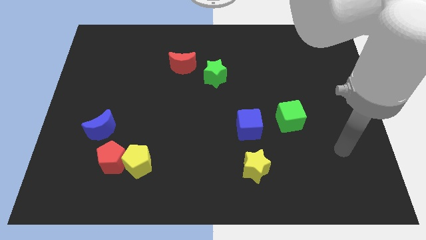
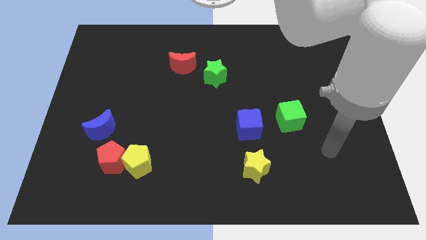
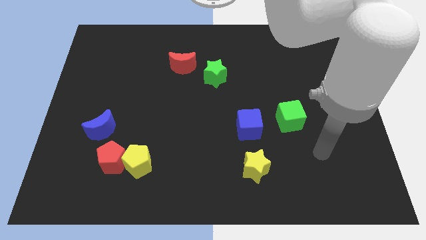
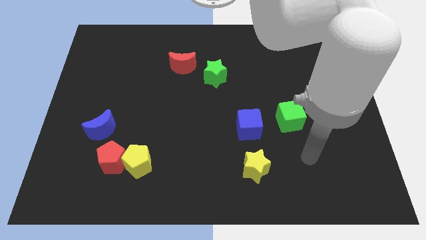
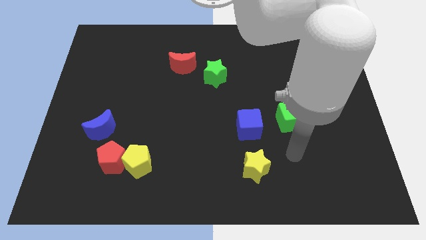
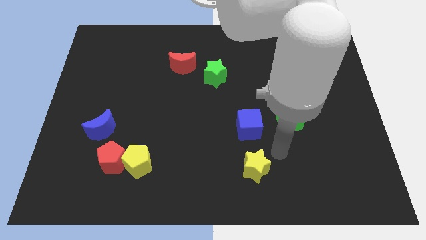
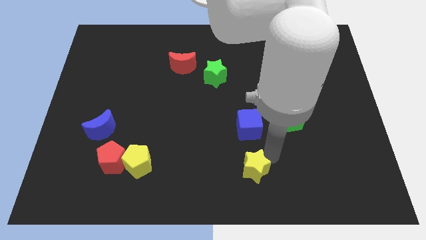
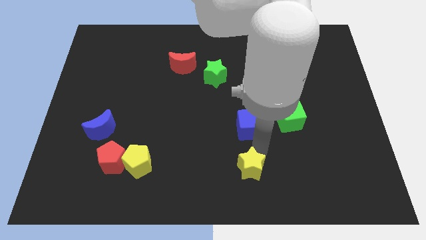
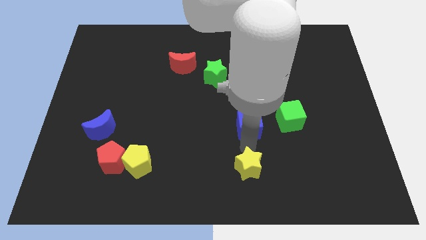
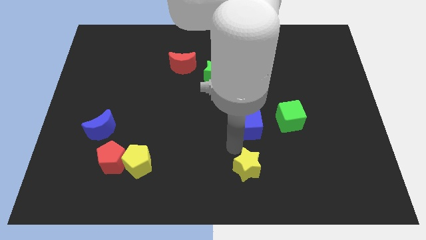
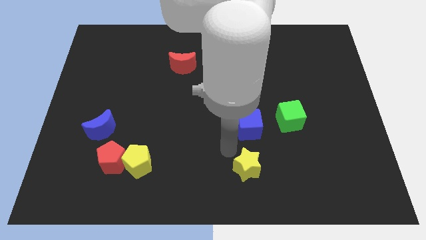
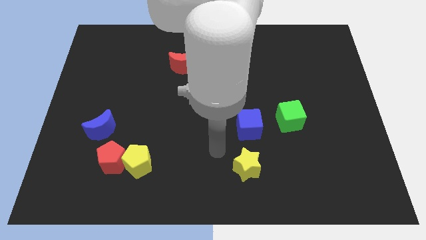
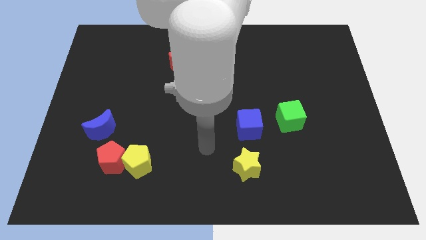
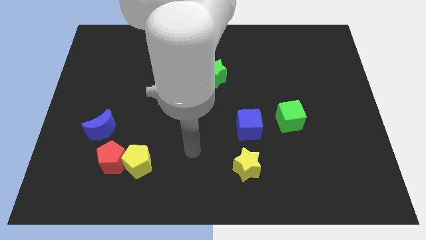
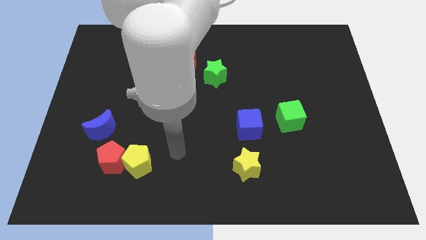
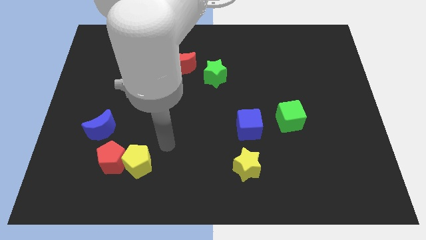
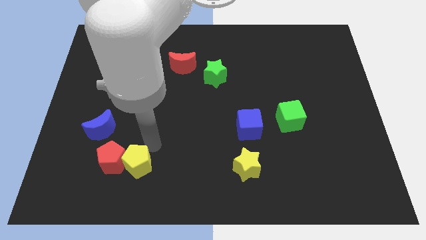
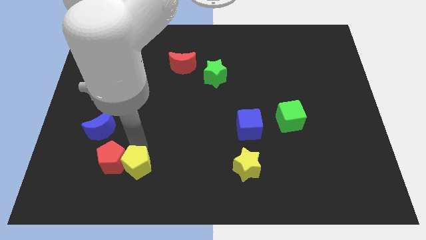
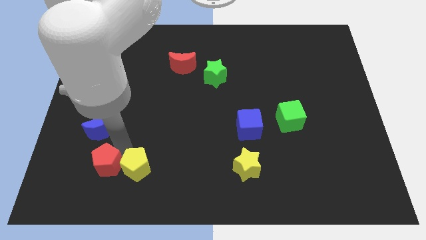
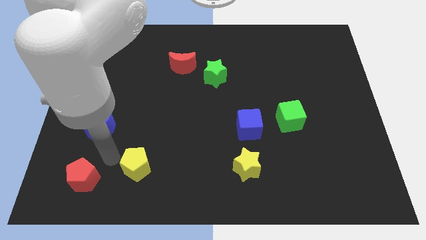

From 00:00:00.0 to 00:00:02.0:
move the yellow pentagon away from the red pentagon

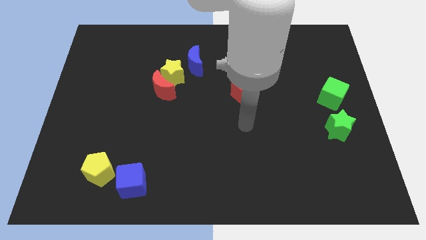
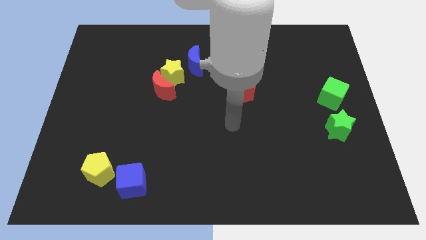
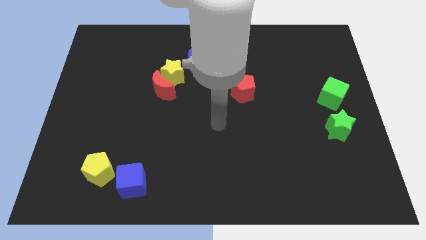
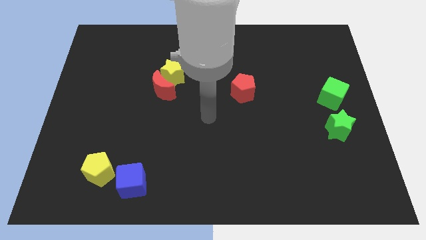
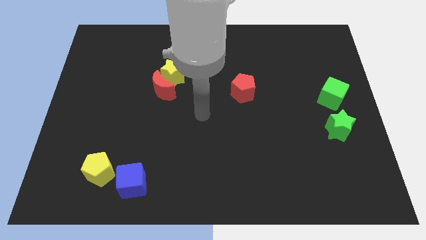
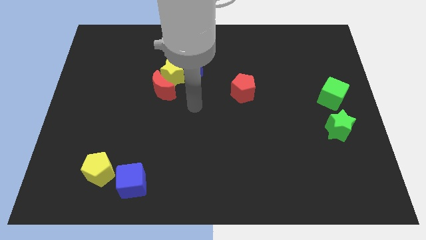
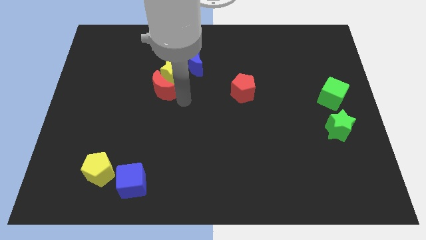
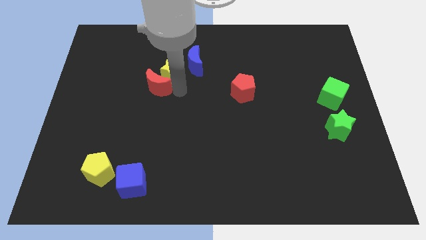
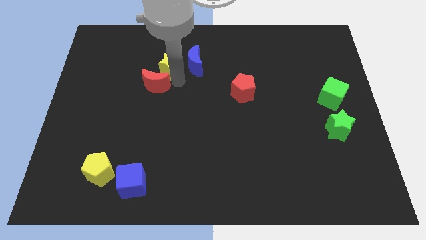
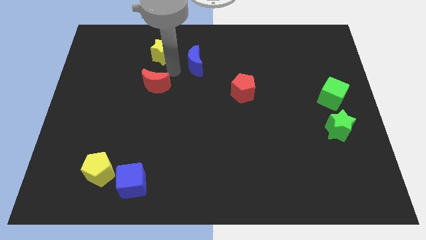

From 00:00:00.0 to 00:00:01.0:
separate the red moon from the yellow star

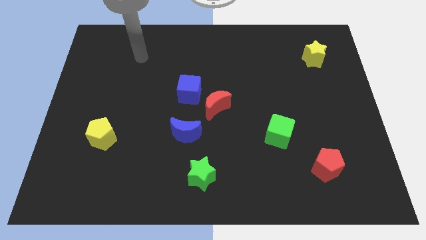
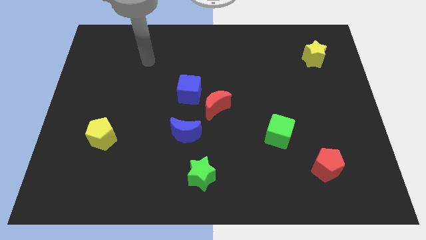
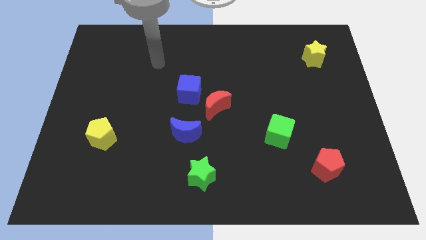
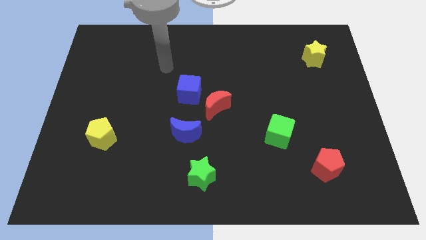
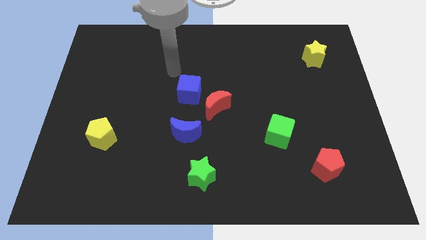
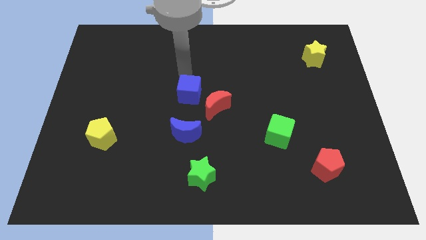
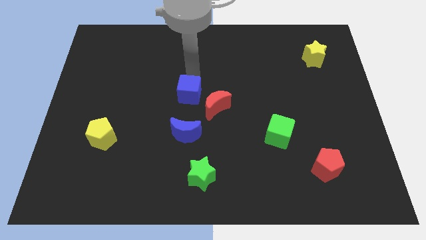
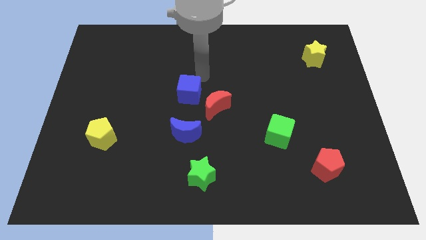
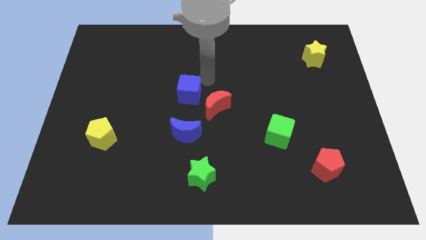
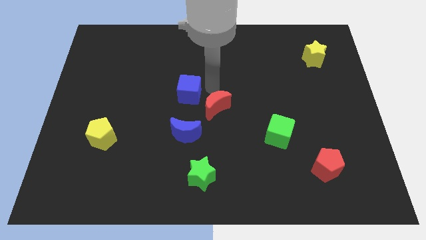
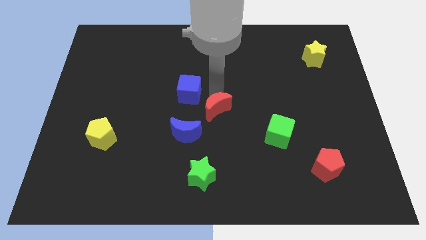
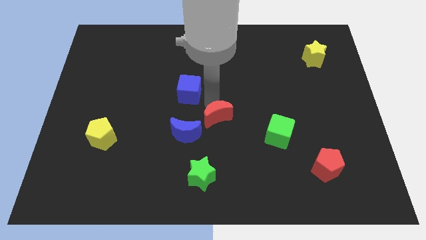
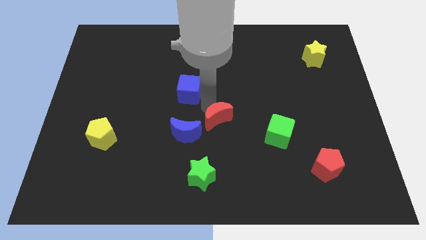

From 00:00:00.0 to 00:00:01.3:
separate the blue cube from the red moon

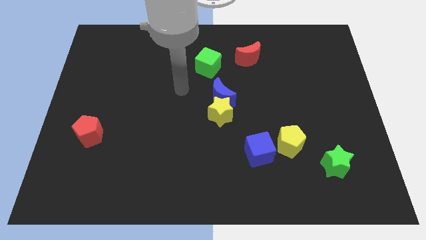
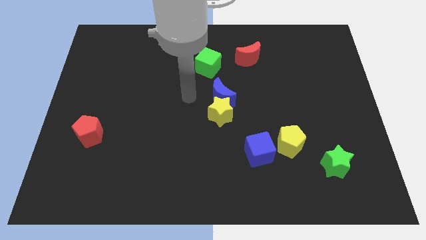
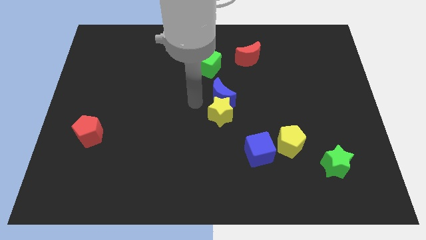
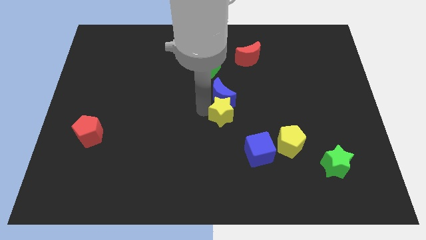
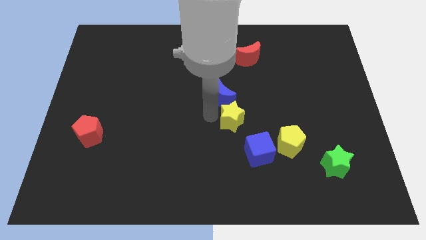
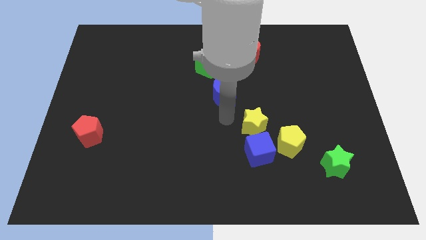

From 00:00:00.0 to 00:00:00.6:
move the blue moon away from the yellow star

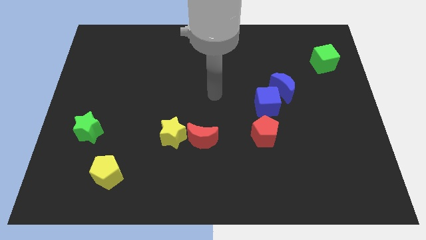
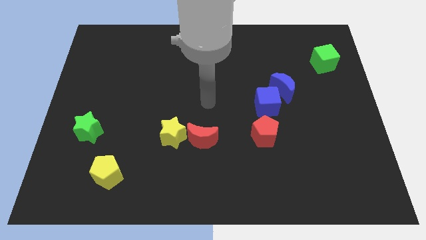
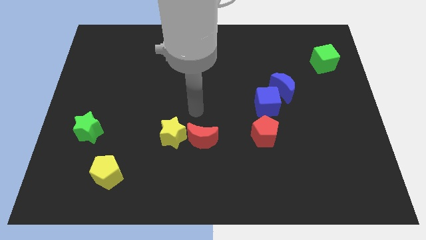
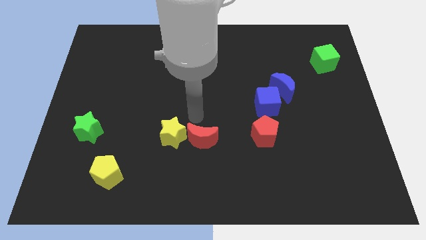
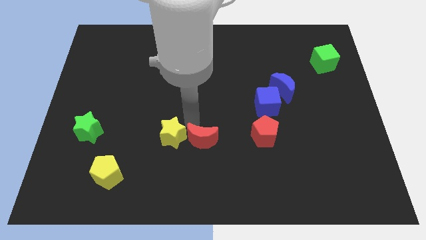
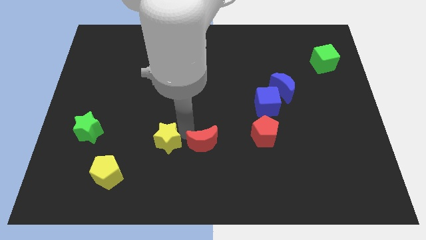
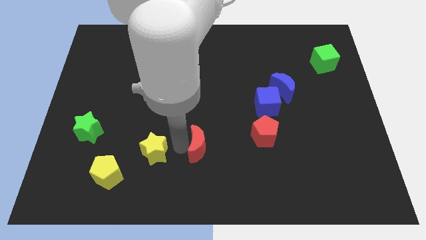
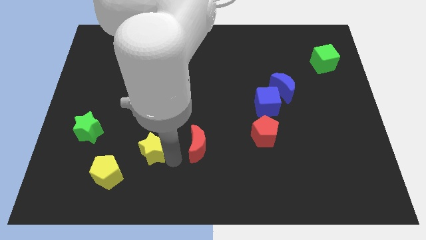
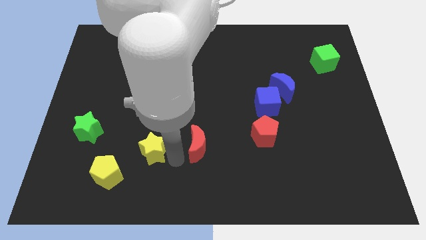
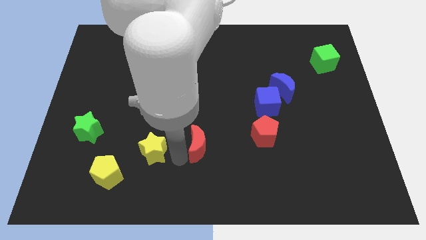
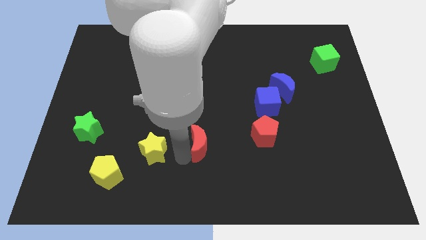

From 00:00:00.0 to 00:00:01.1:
pull the red moon apart from the yellow star

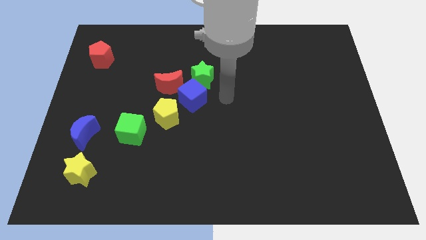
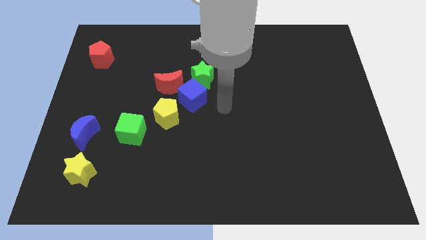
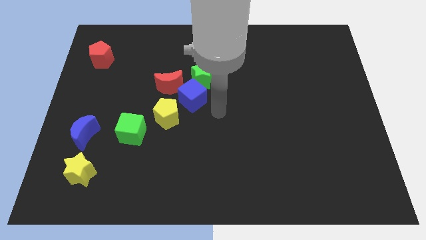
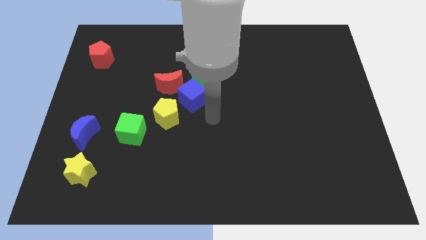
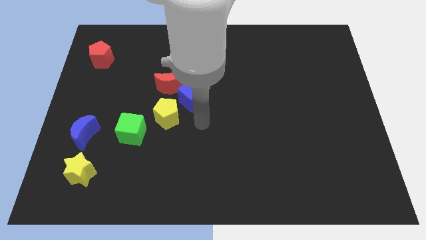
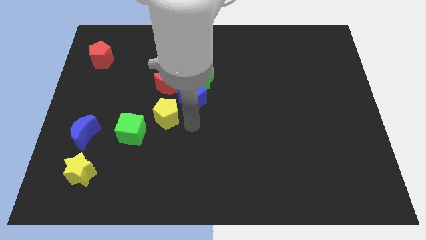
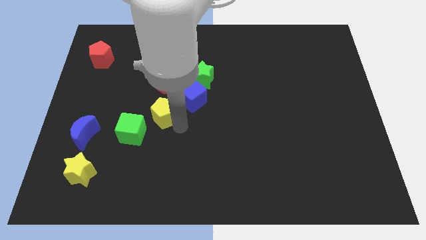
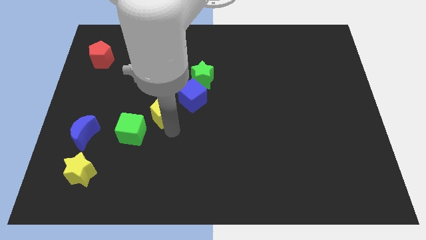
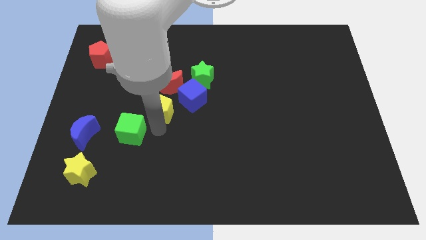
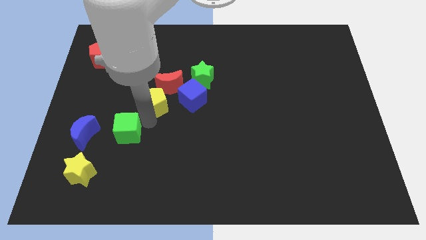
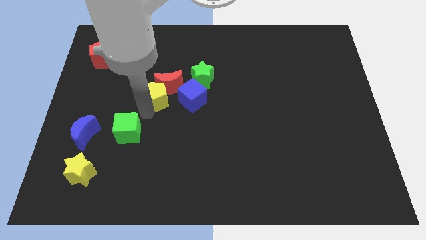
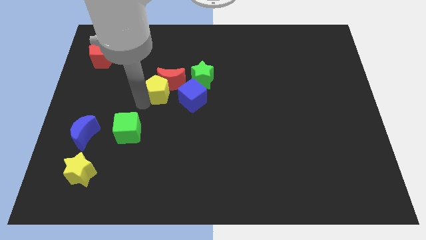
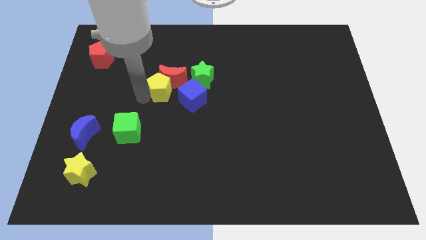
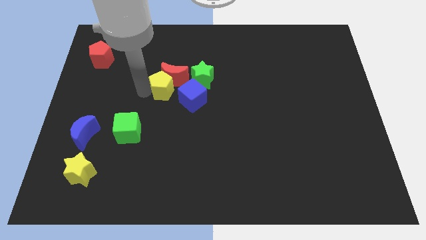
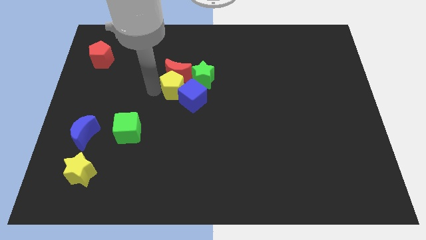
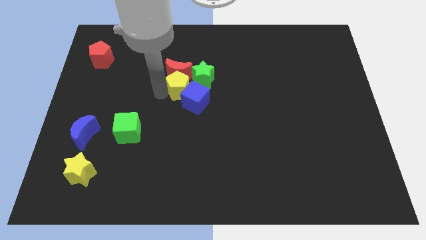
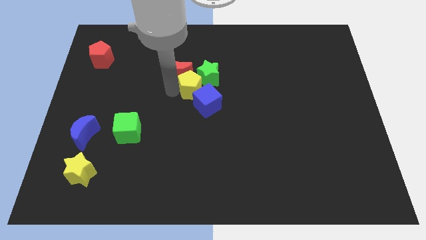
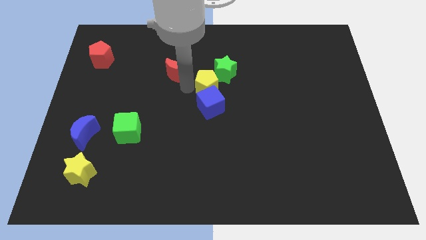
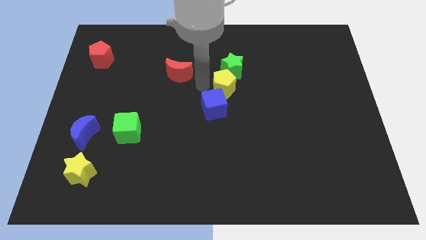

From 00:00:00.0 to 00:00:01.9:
move the blue cube away from the green star, red moon, and yellow pentagon

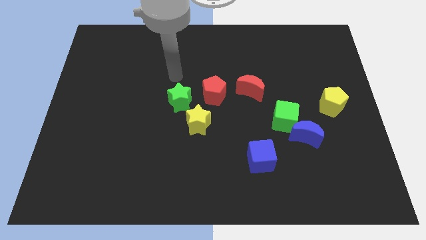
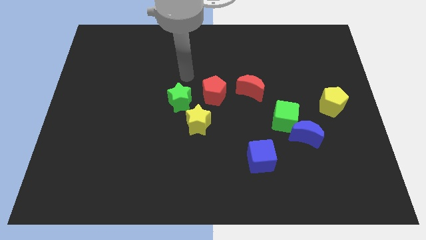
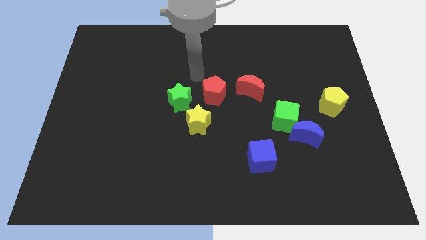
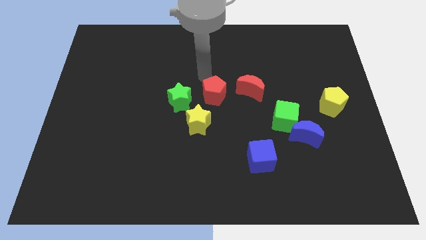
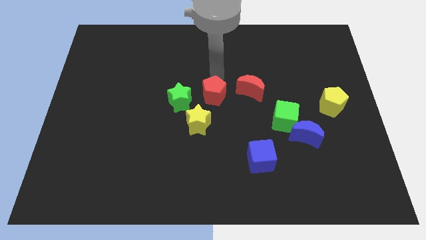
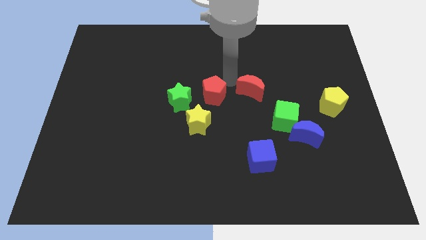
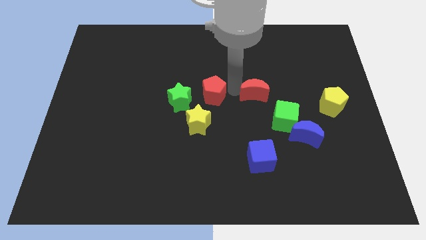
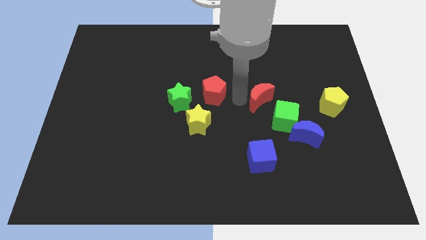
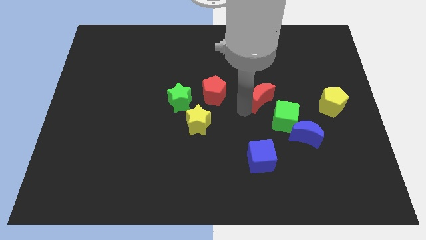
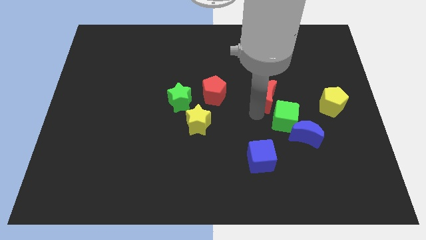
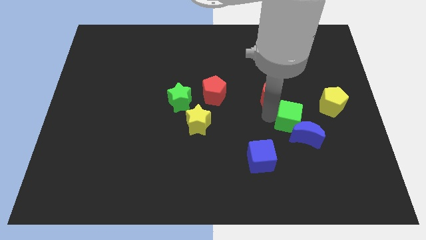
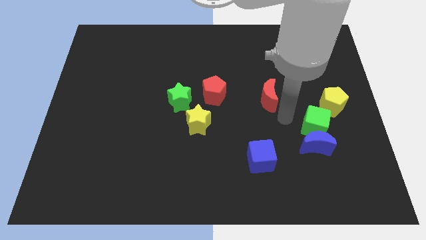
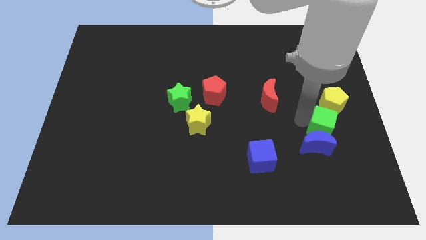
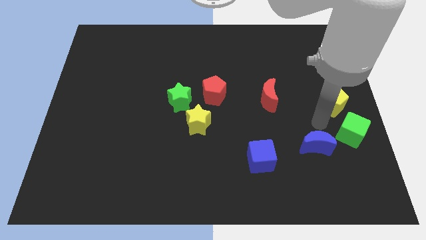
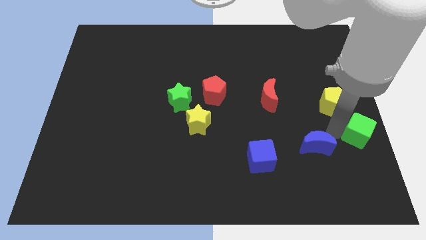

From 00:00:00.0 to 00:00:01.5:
separate the blue moon from the green cube

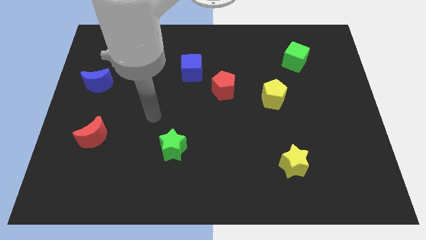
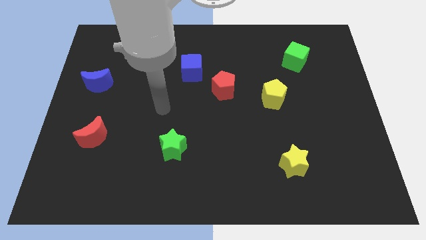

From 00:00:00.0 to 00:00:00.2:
separate the red pentagon from the blue cube
